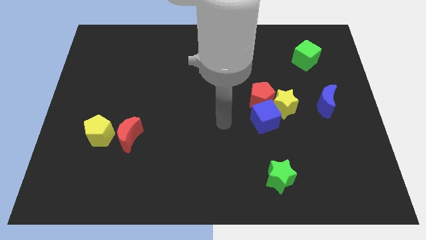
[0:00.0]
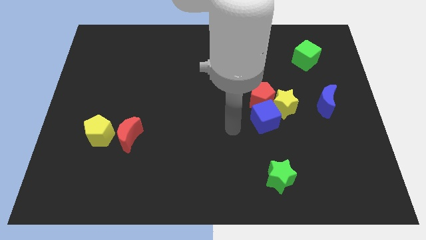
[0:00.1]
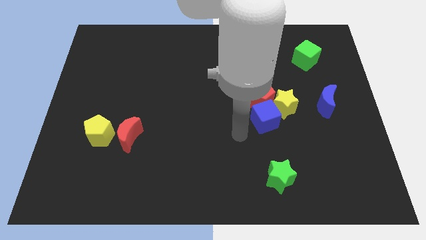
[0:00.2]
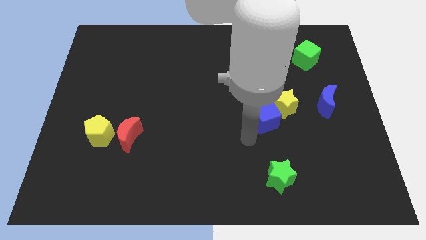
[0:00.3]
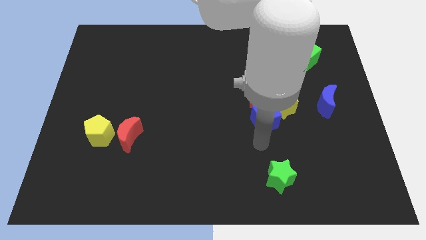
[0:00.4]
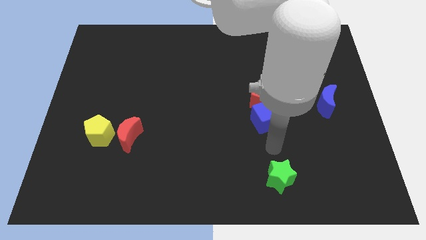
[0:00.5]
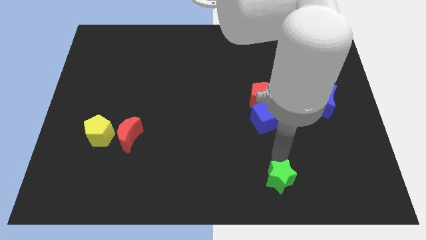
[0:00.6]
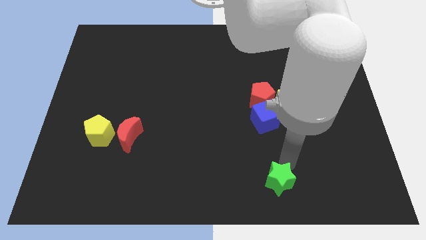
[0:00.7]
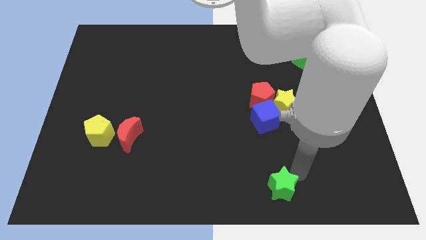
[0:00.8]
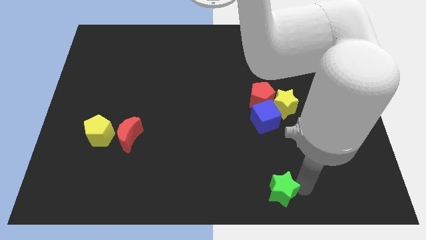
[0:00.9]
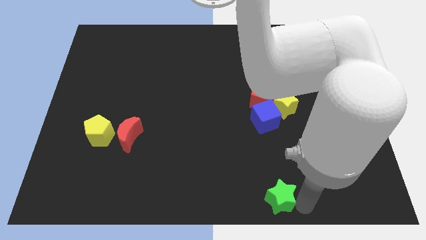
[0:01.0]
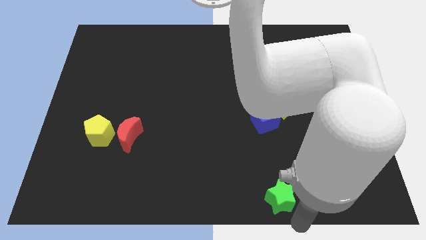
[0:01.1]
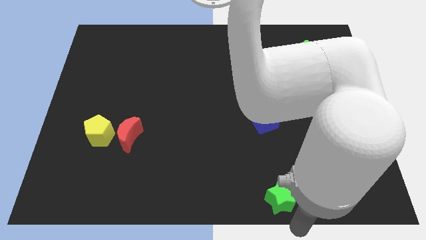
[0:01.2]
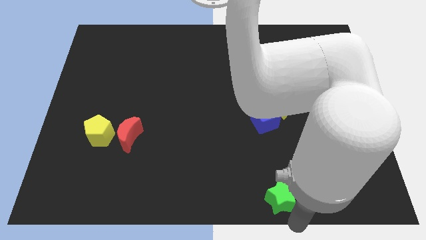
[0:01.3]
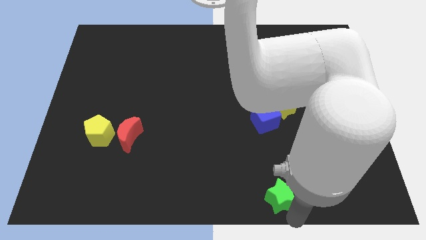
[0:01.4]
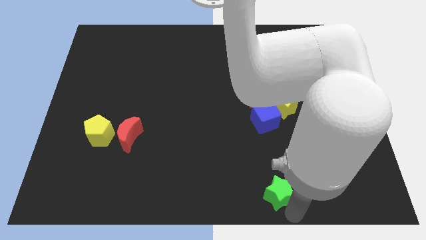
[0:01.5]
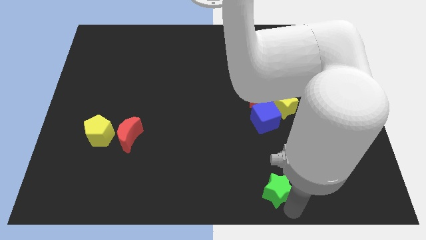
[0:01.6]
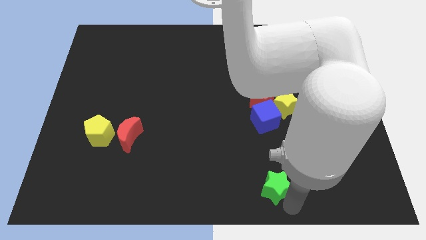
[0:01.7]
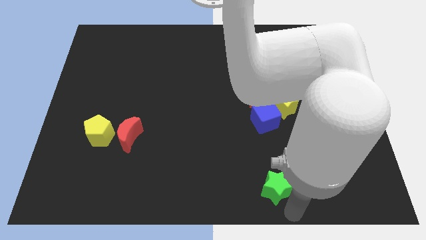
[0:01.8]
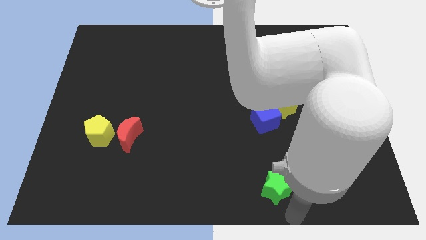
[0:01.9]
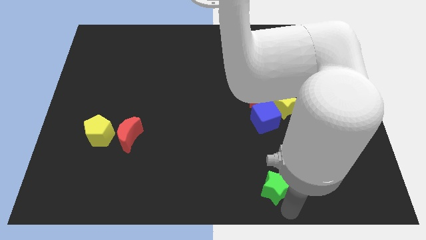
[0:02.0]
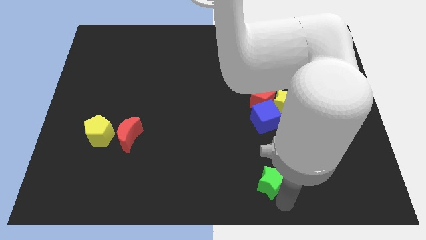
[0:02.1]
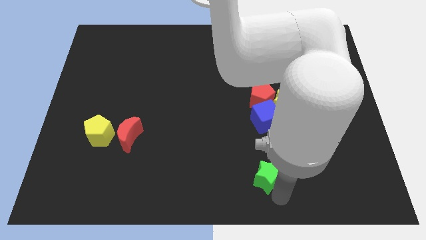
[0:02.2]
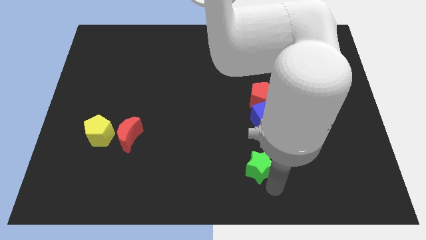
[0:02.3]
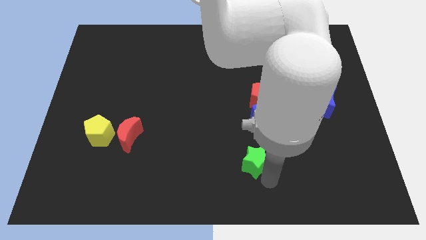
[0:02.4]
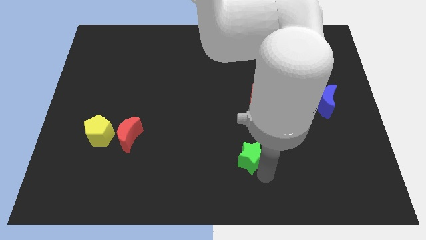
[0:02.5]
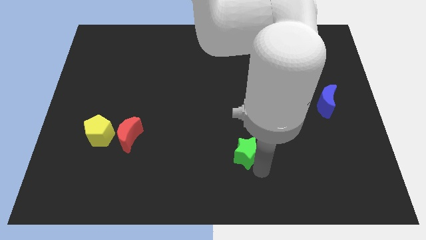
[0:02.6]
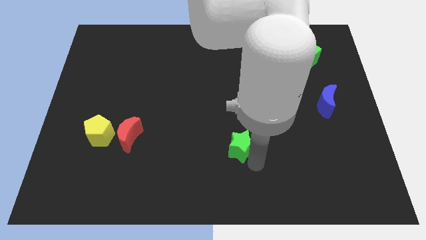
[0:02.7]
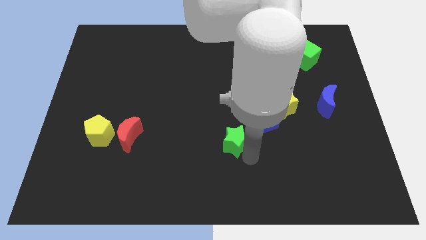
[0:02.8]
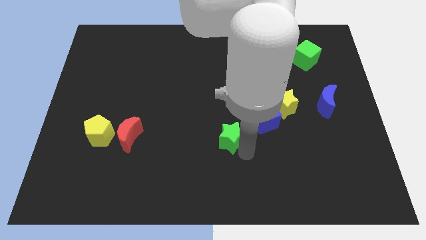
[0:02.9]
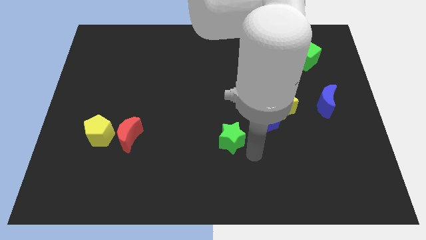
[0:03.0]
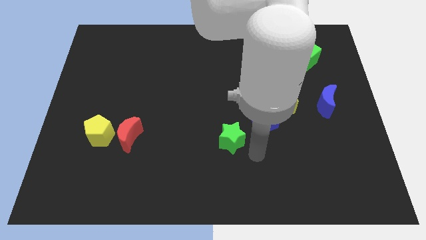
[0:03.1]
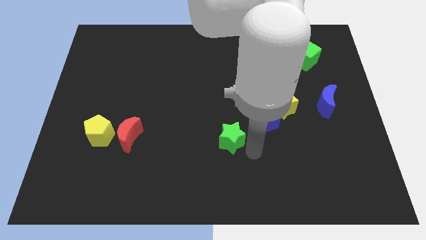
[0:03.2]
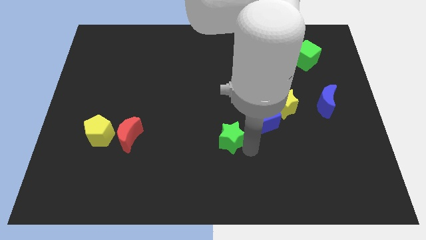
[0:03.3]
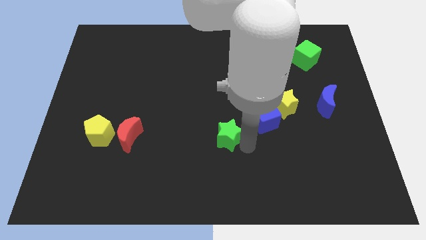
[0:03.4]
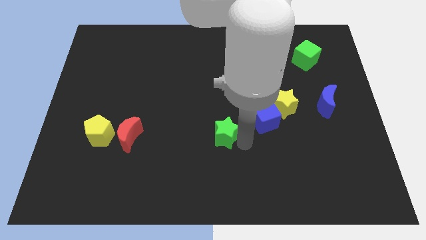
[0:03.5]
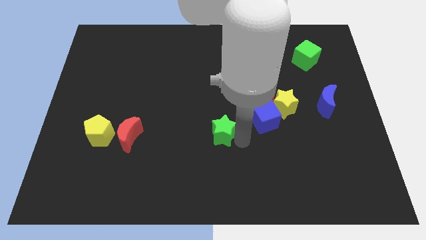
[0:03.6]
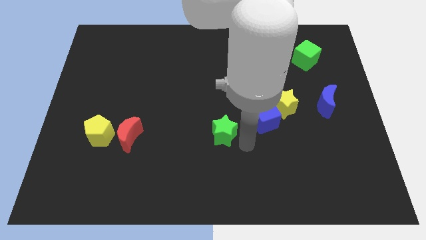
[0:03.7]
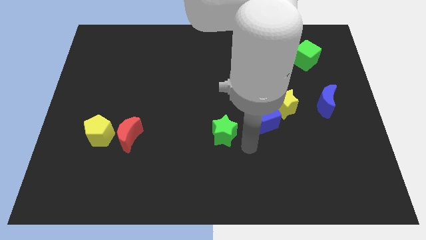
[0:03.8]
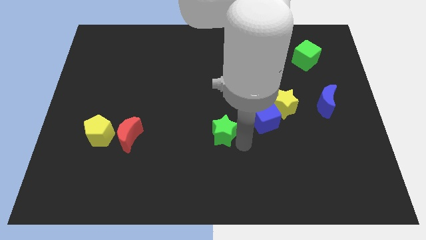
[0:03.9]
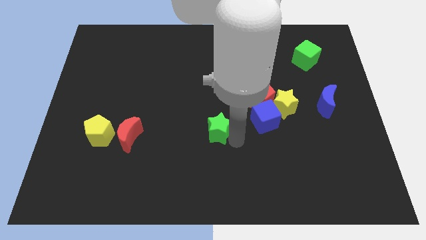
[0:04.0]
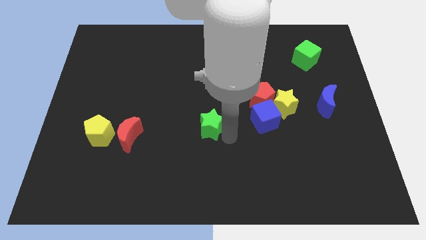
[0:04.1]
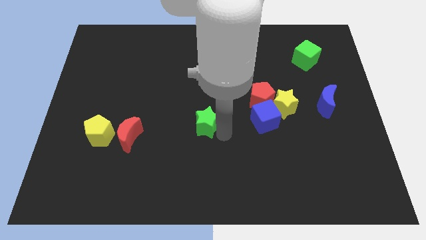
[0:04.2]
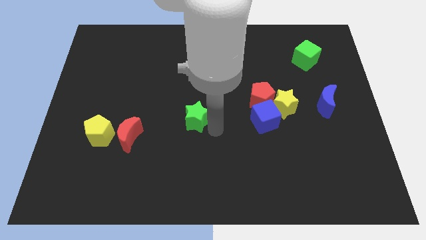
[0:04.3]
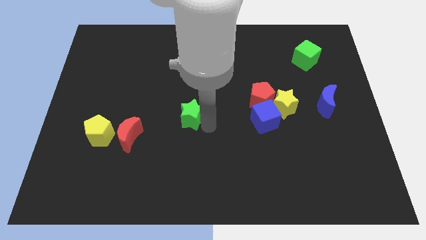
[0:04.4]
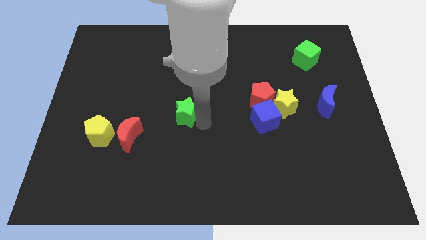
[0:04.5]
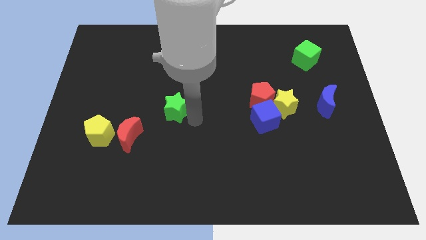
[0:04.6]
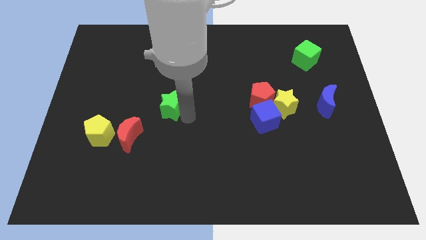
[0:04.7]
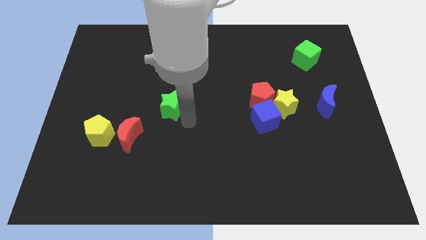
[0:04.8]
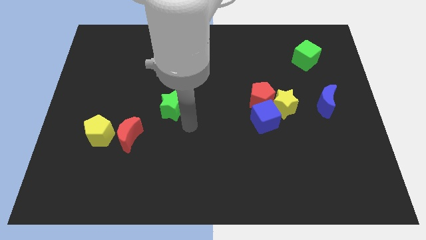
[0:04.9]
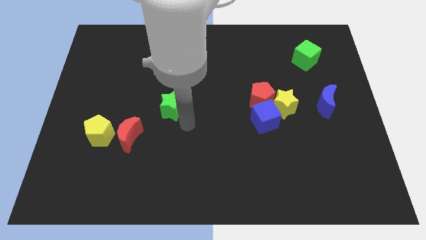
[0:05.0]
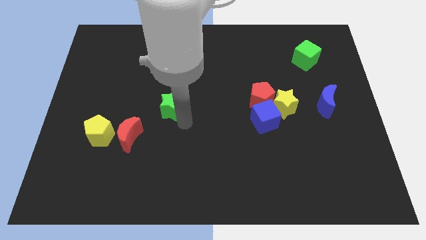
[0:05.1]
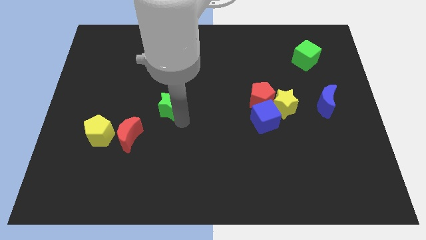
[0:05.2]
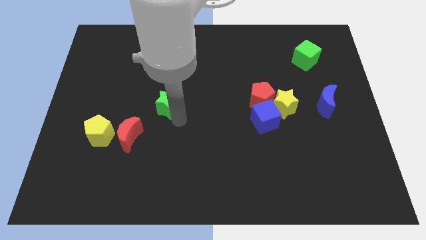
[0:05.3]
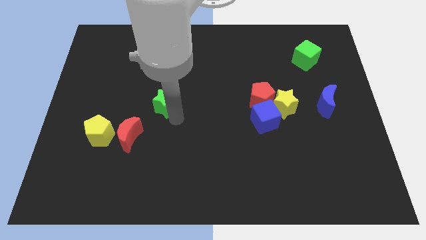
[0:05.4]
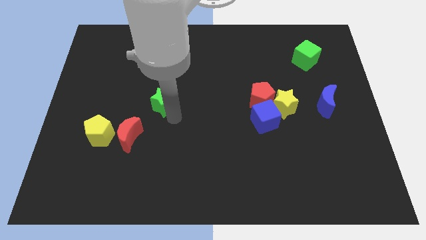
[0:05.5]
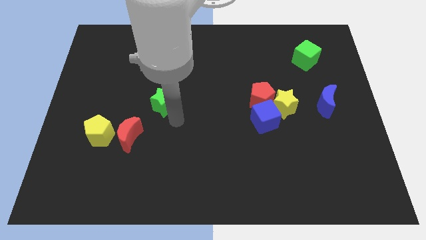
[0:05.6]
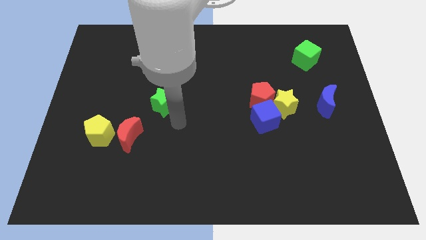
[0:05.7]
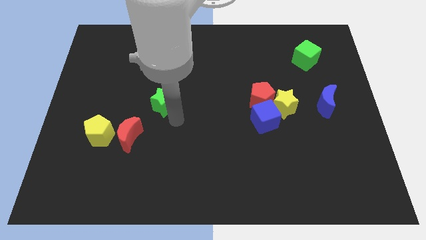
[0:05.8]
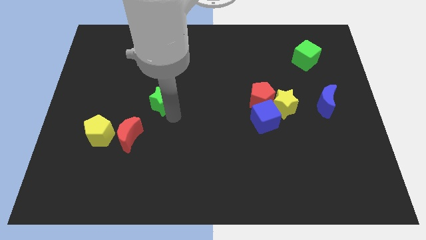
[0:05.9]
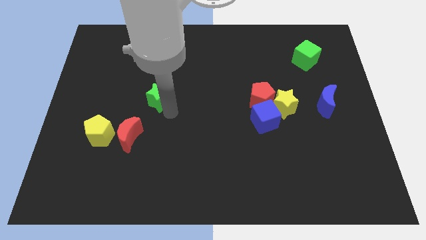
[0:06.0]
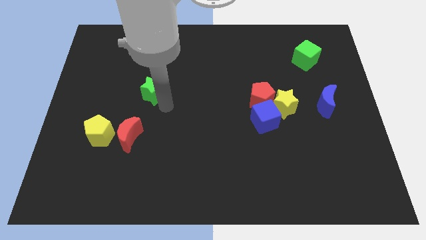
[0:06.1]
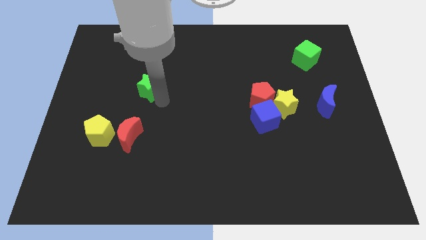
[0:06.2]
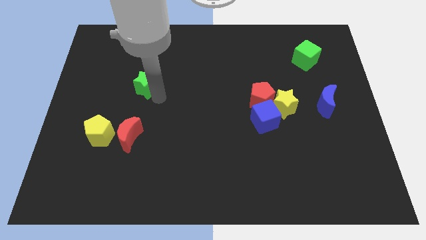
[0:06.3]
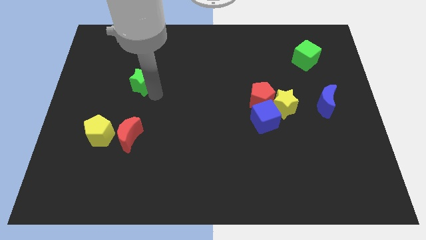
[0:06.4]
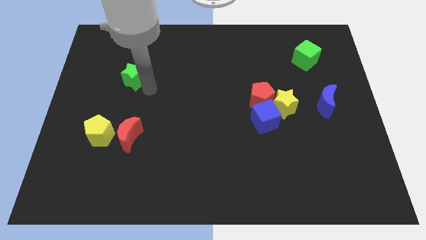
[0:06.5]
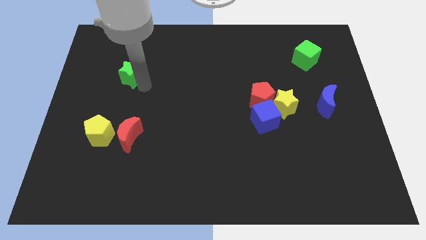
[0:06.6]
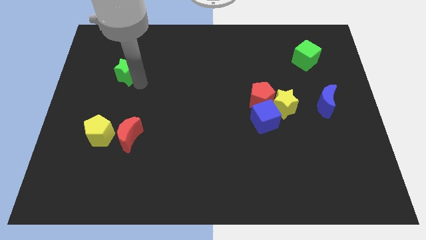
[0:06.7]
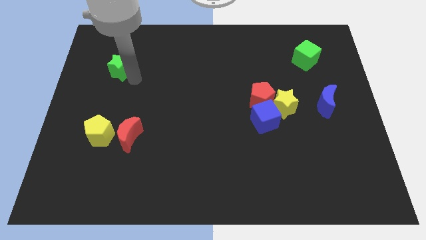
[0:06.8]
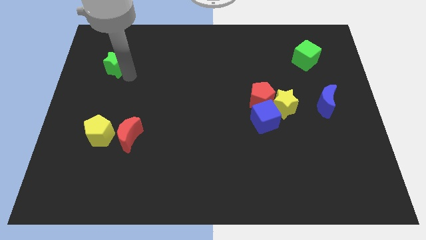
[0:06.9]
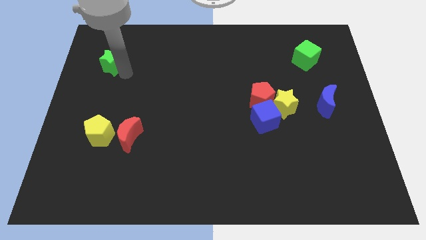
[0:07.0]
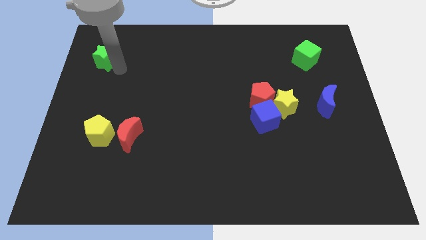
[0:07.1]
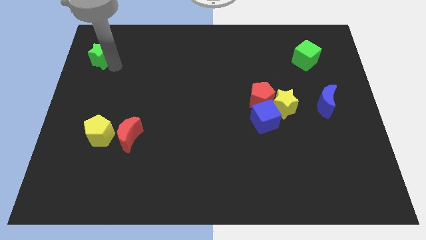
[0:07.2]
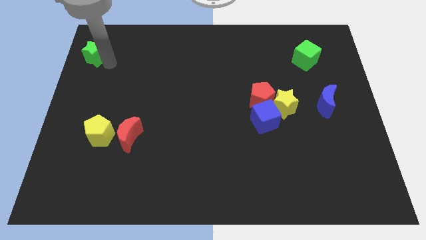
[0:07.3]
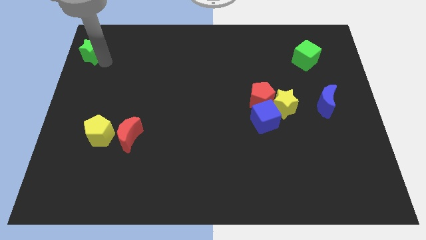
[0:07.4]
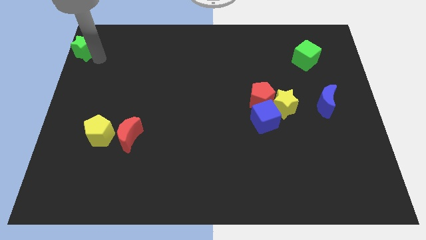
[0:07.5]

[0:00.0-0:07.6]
slide the green star to the top left corner
